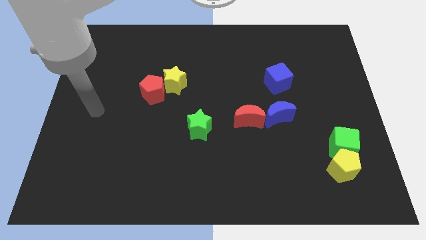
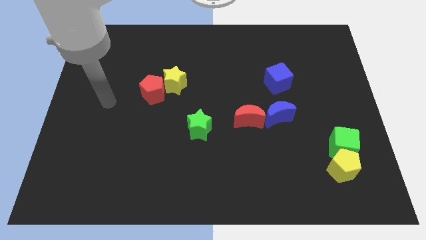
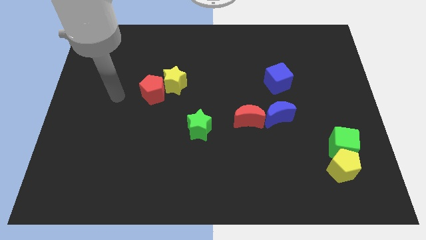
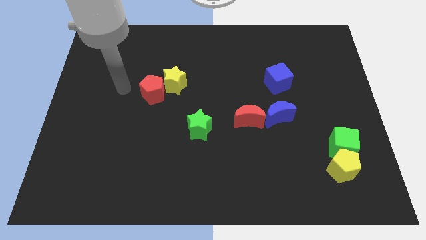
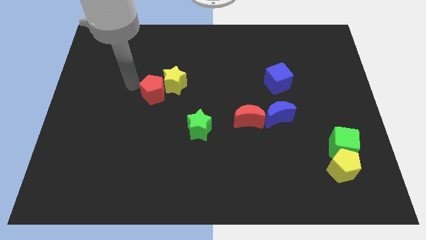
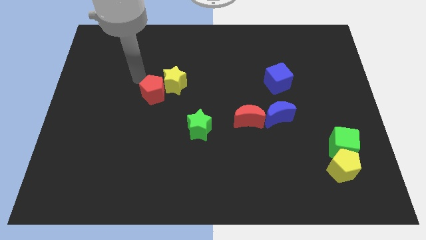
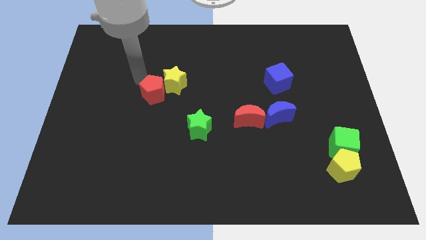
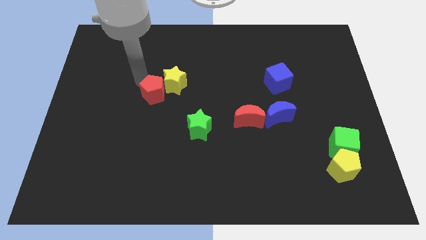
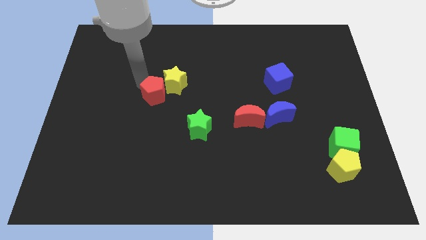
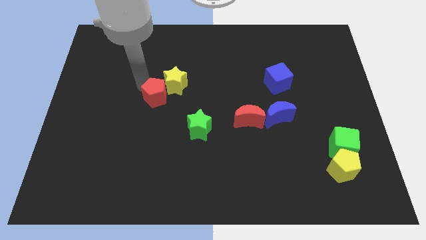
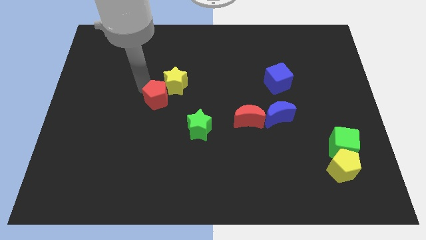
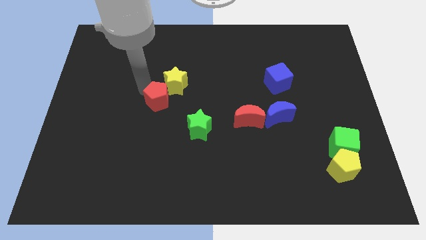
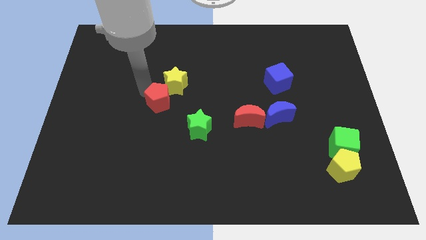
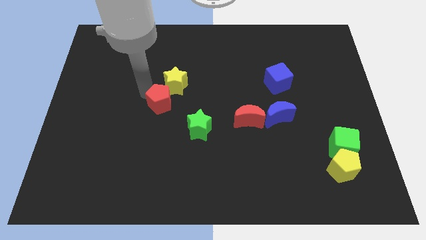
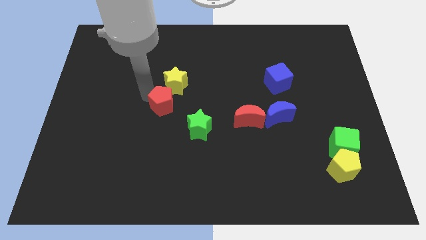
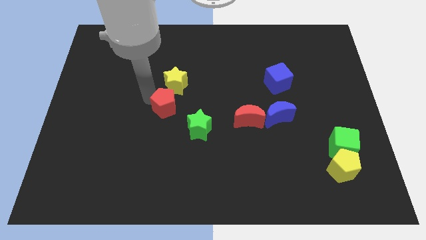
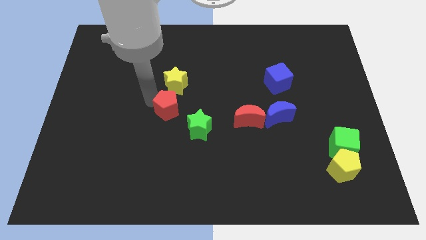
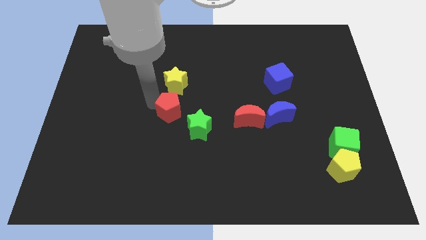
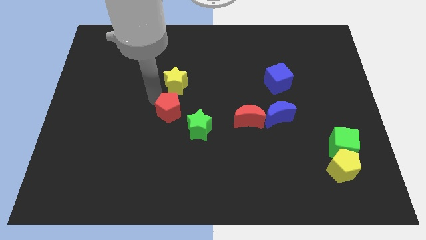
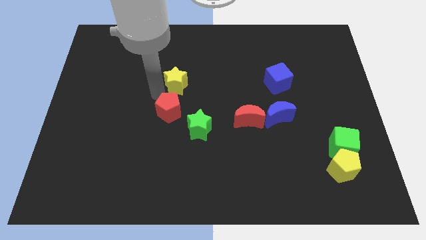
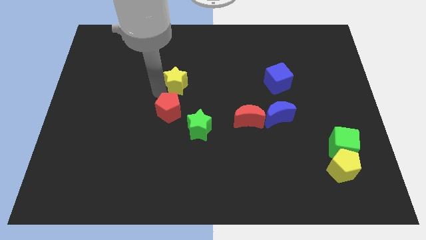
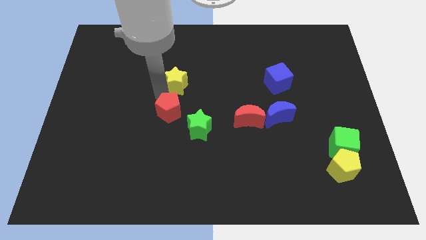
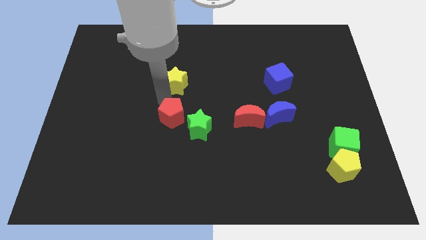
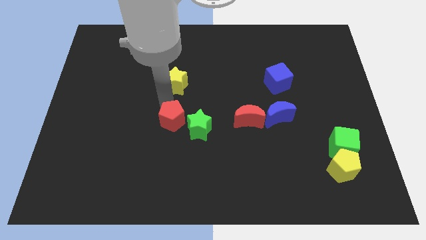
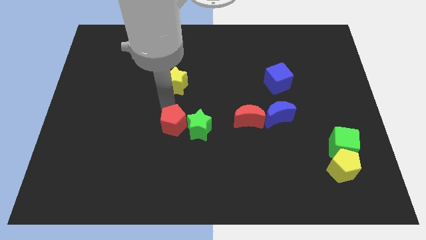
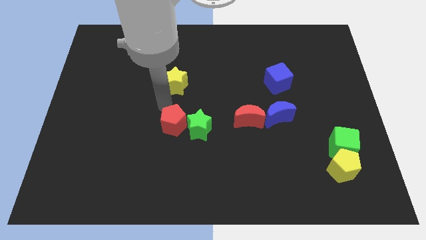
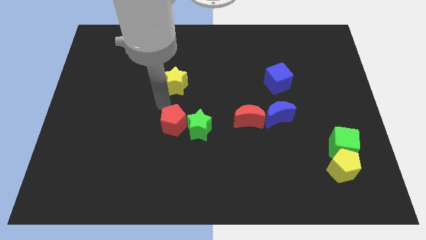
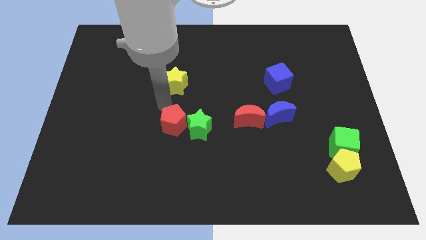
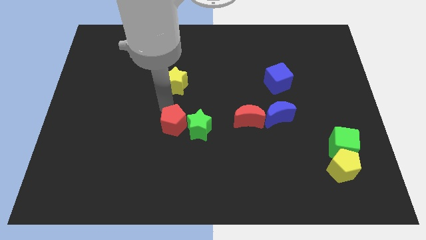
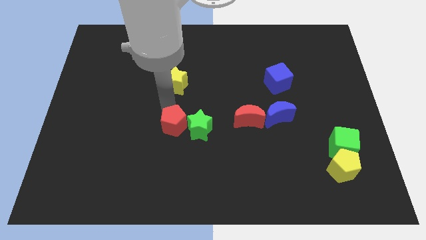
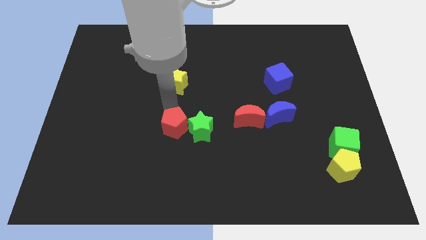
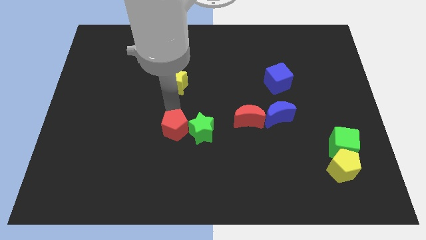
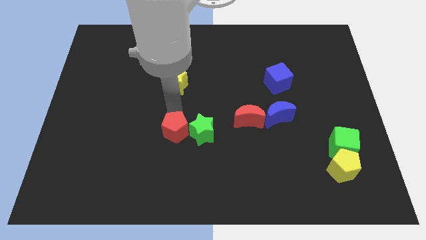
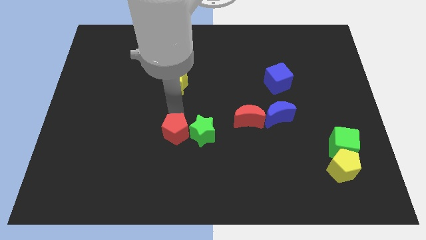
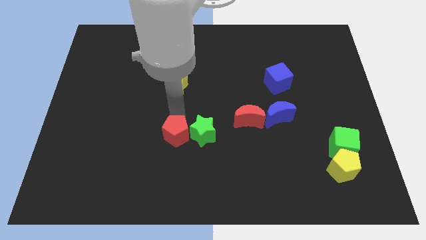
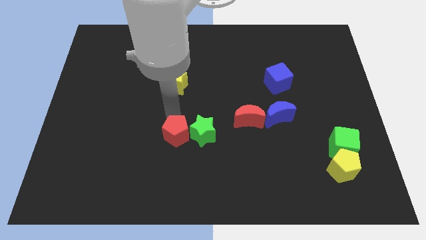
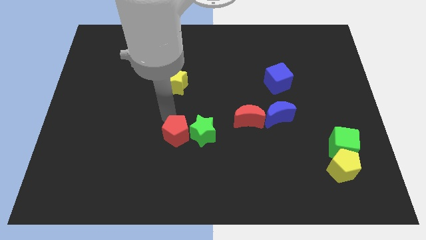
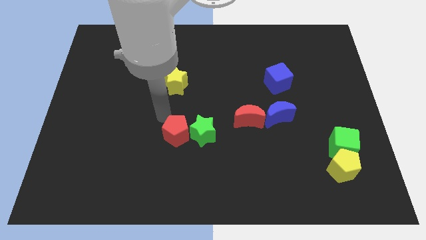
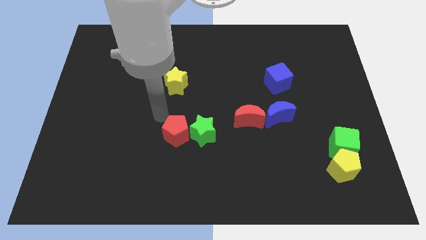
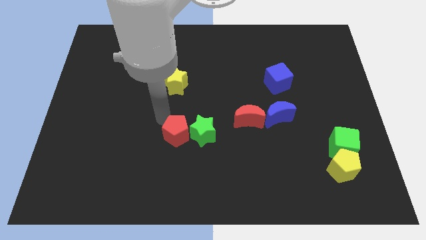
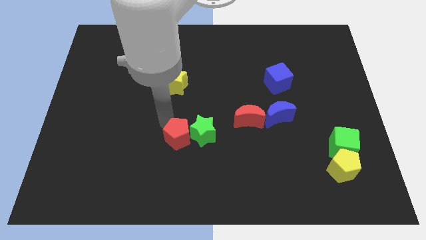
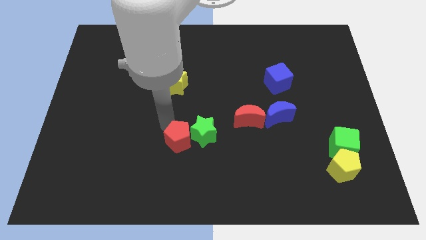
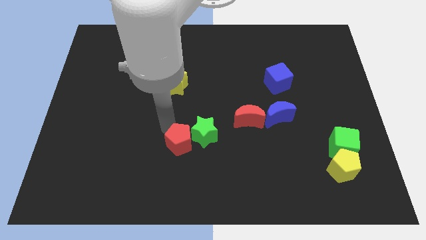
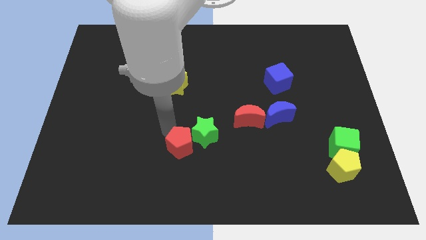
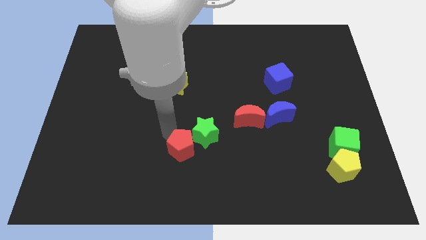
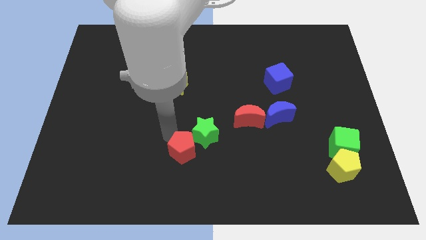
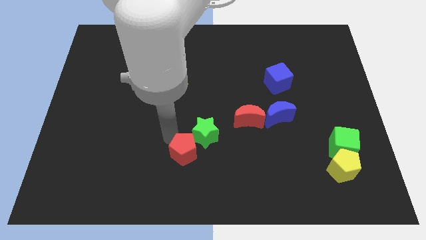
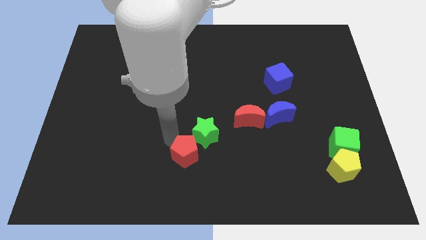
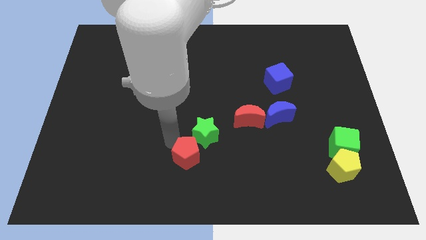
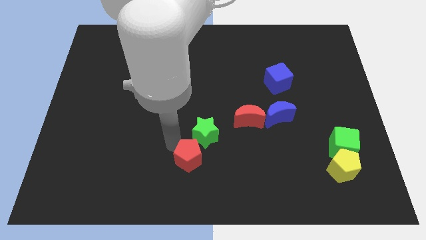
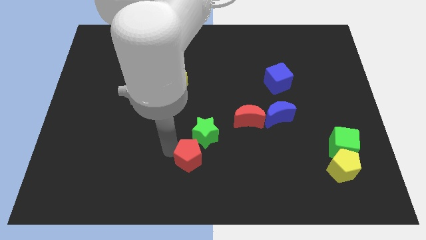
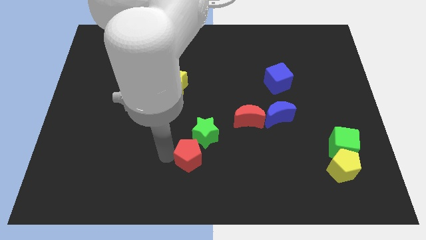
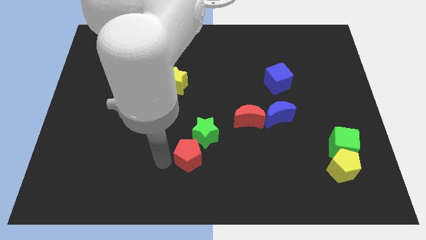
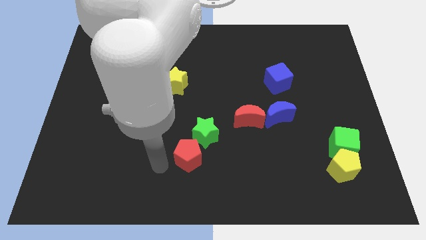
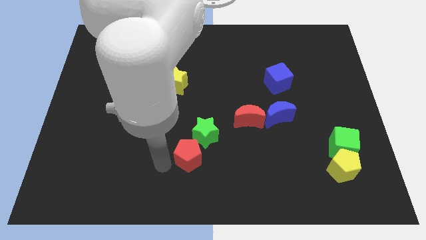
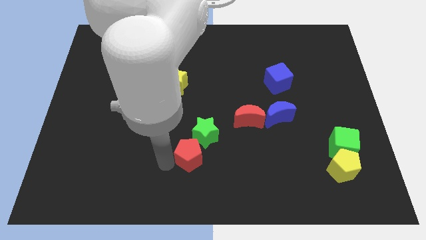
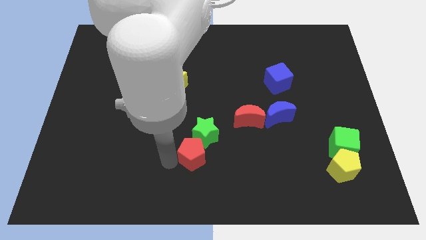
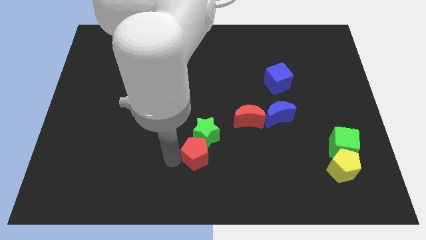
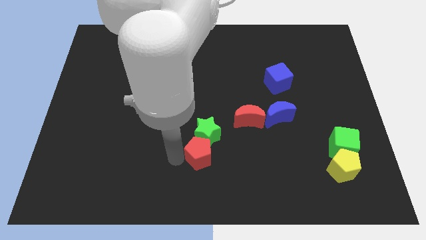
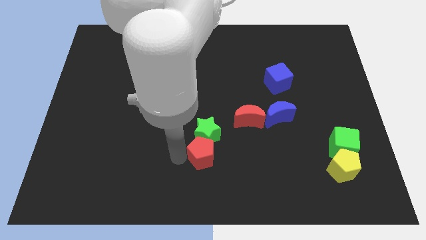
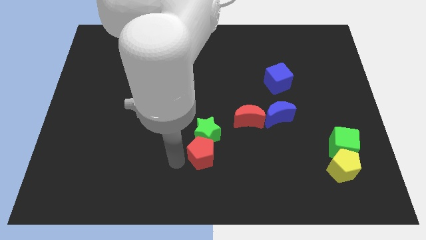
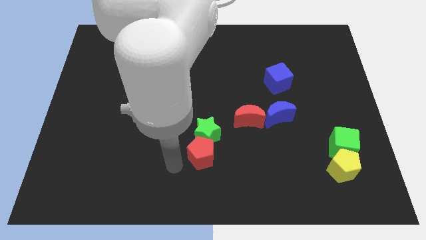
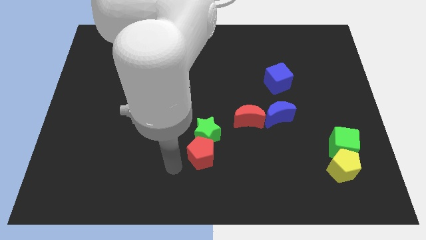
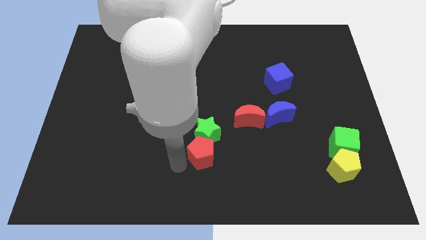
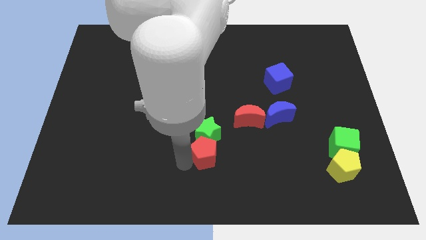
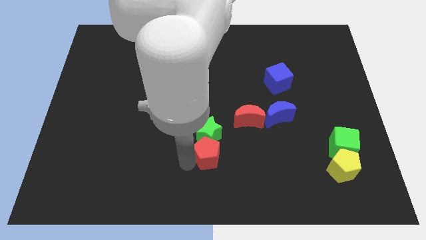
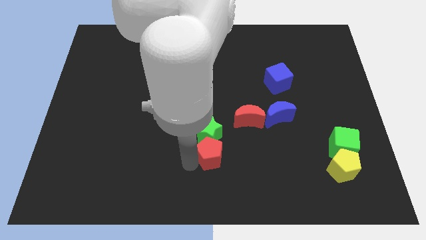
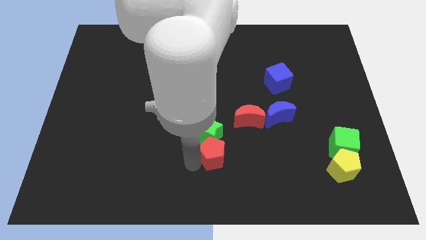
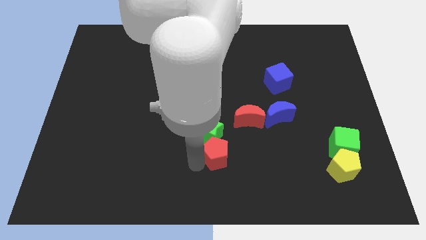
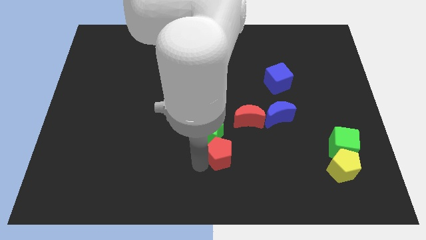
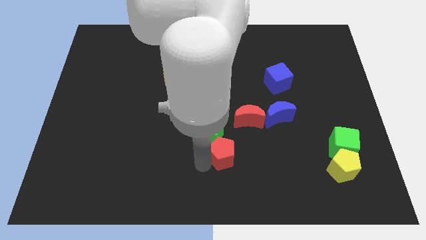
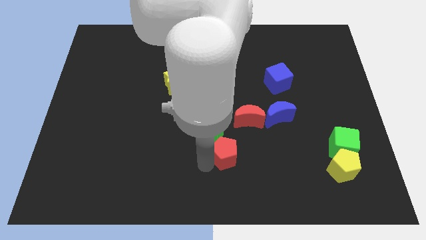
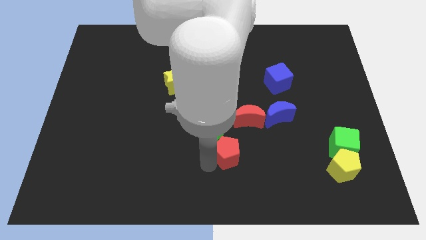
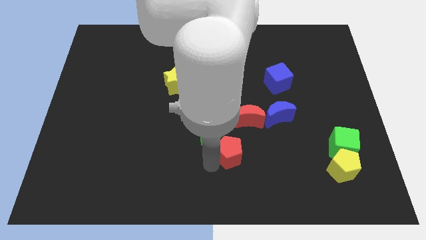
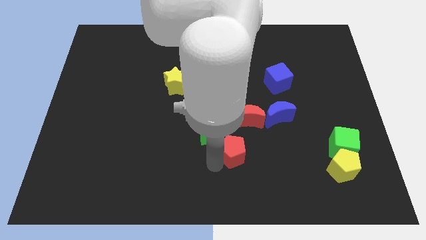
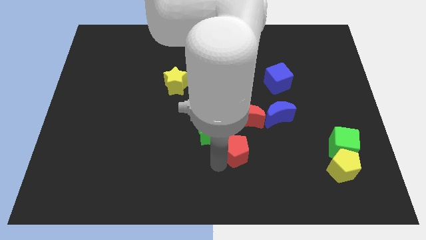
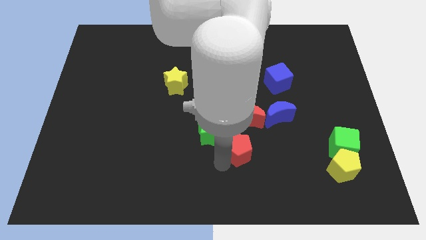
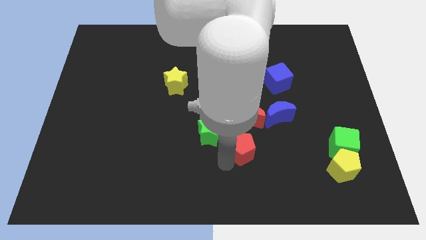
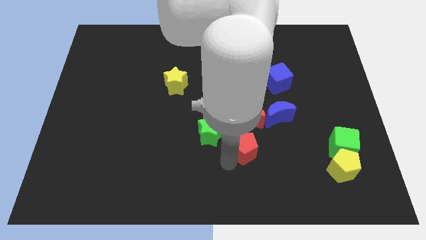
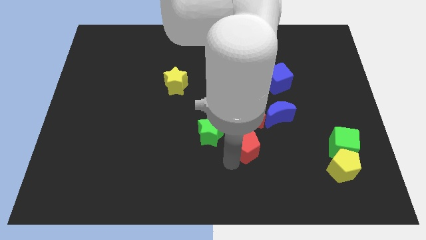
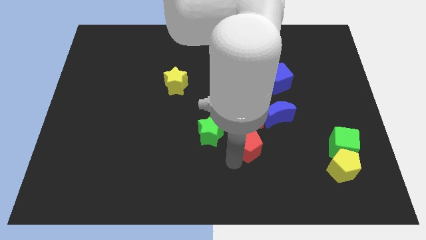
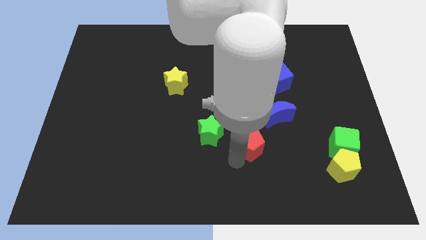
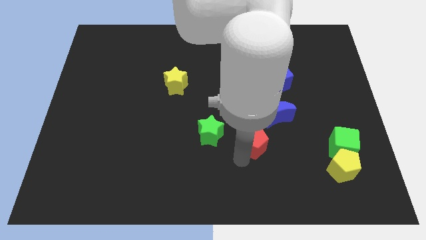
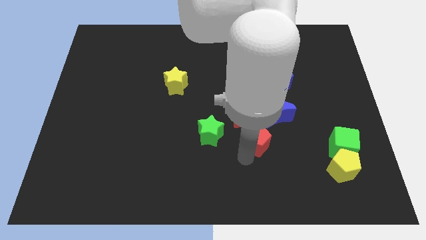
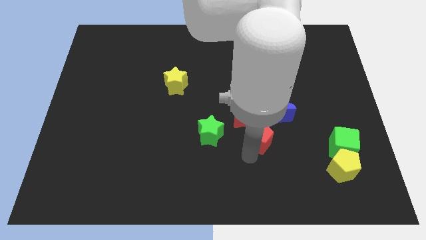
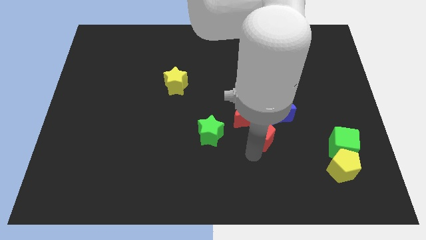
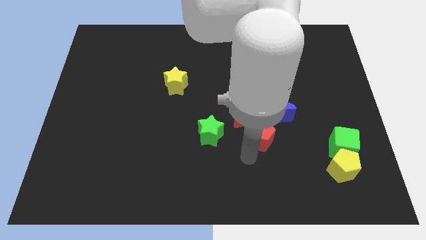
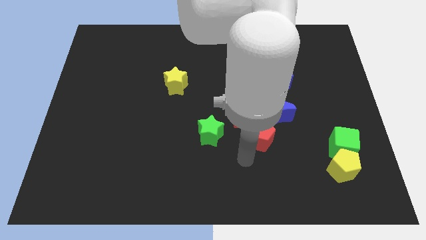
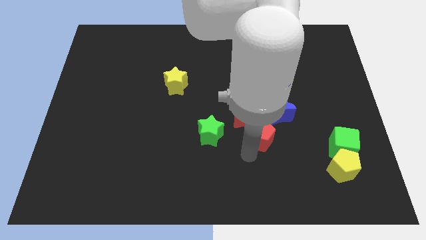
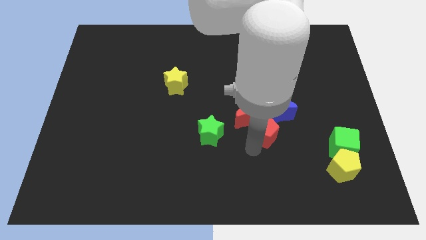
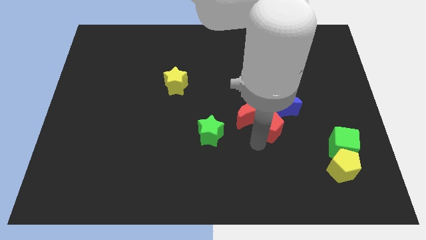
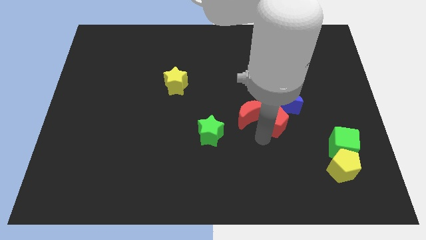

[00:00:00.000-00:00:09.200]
move the red pentagon to the blue moon
